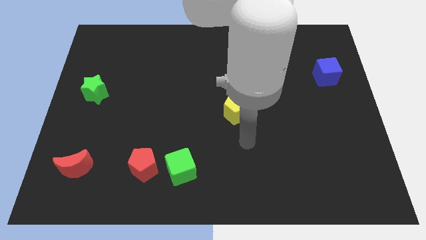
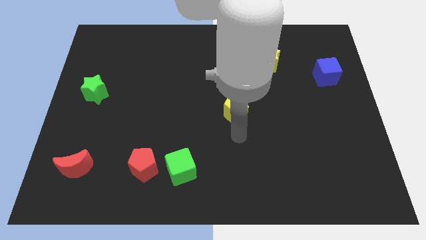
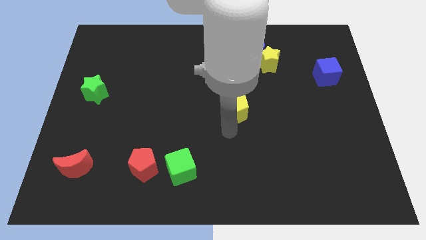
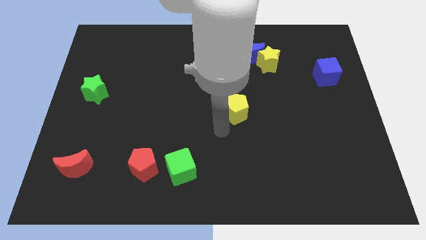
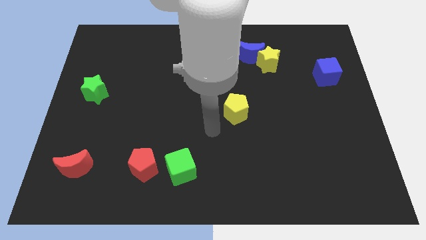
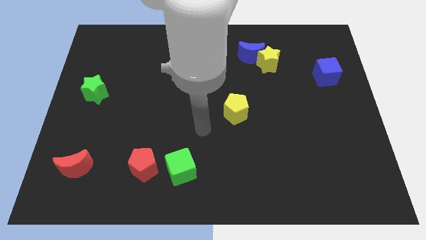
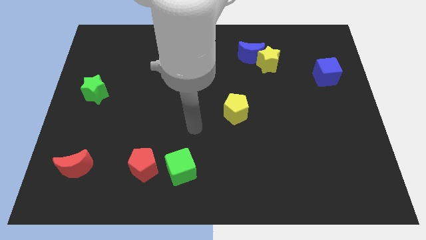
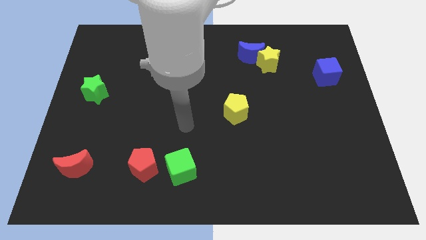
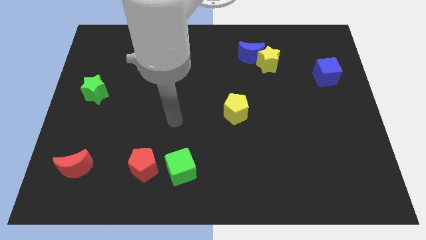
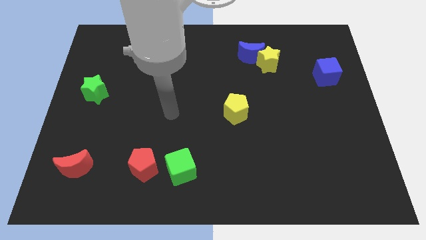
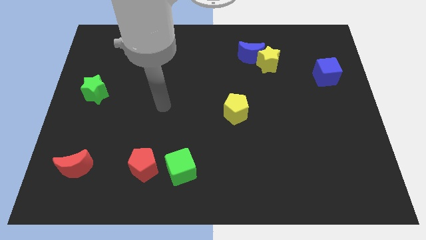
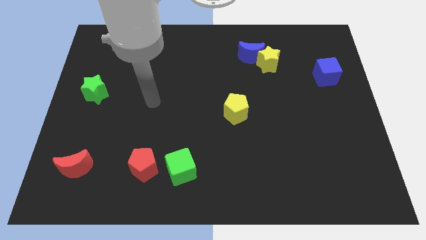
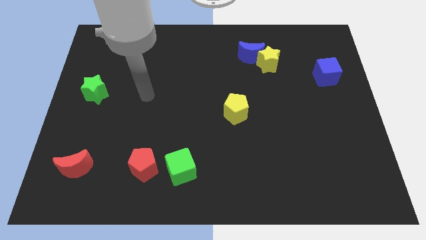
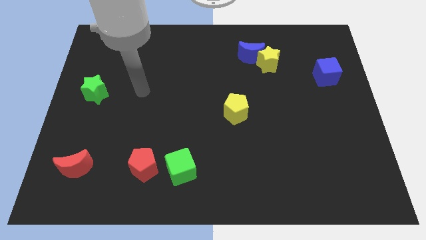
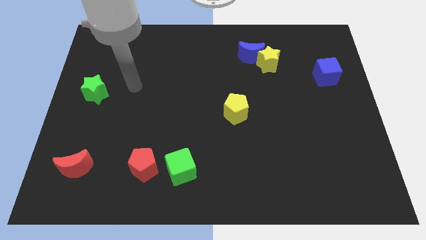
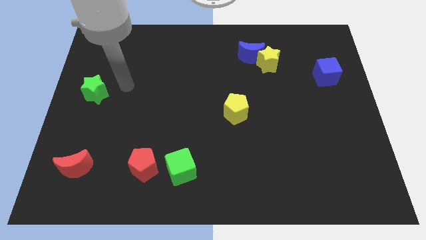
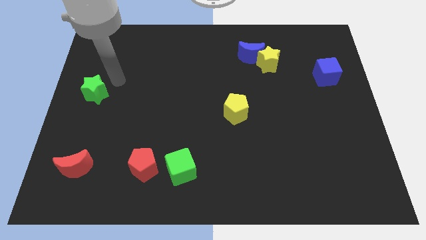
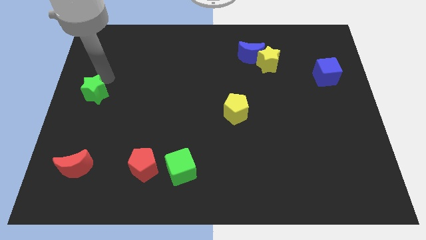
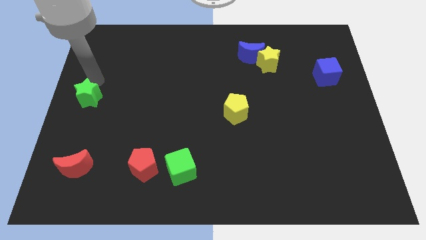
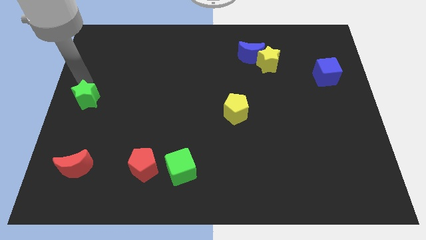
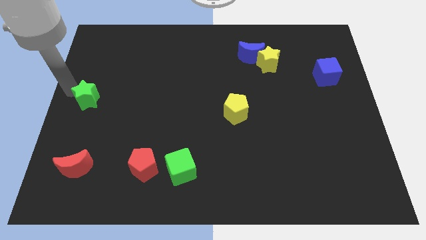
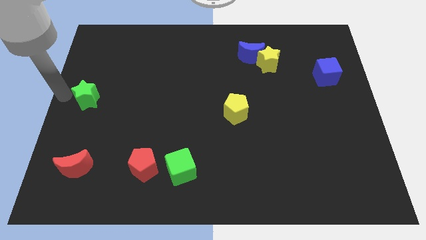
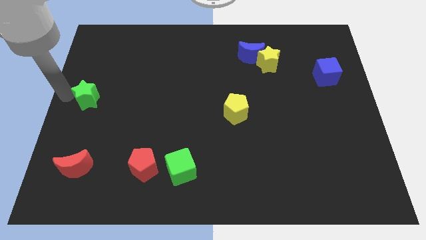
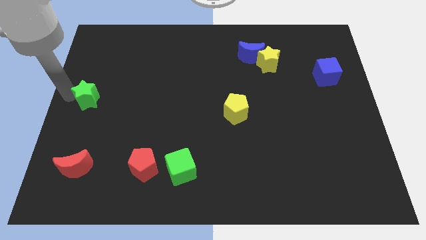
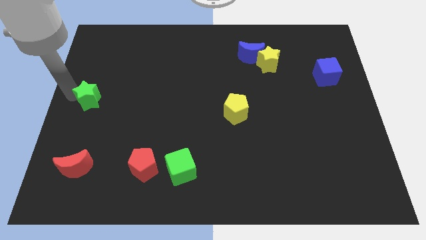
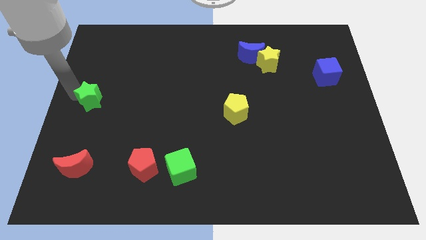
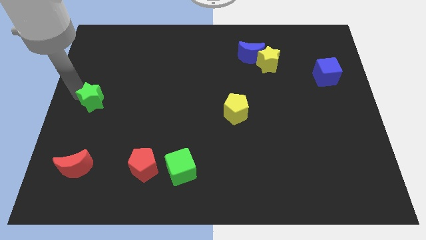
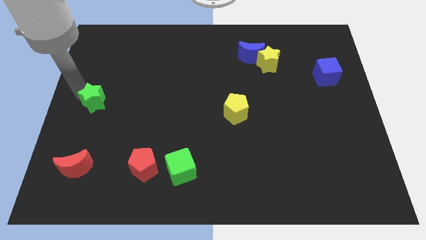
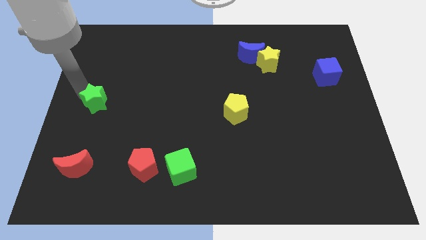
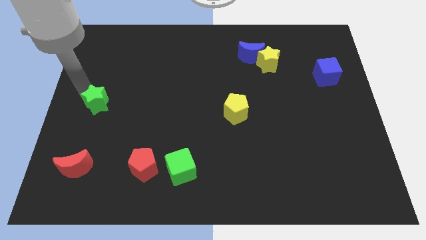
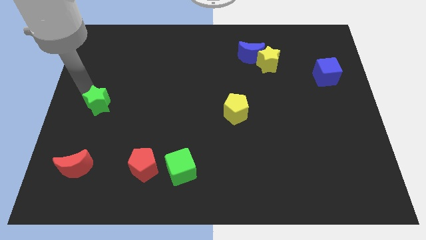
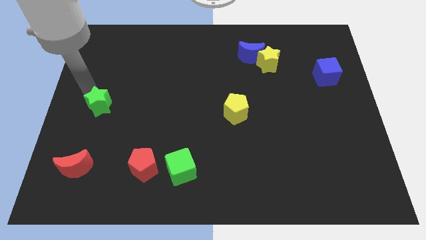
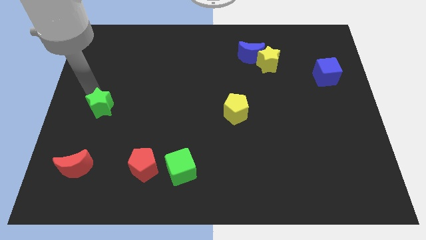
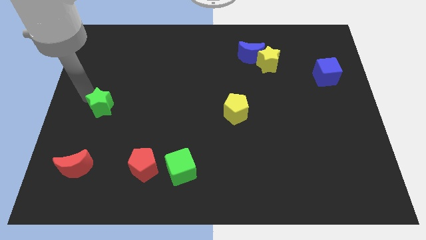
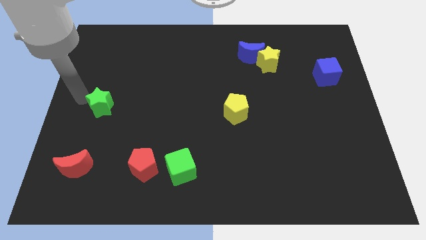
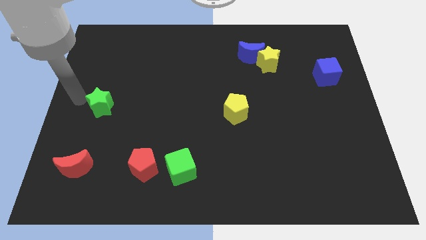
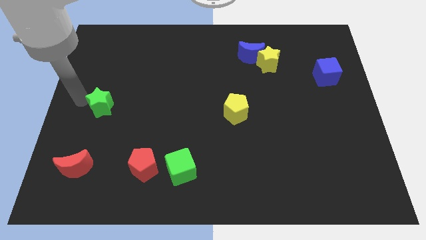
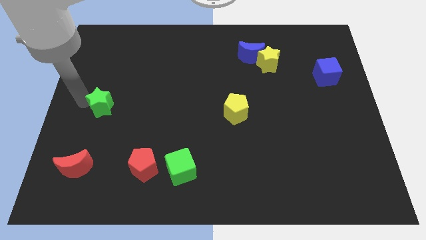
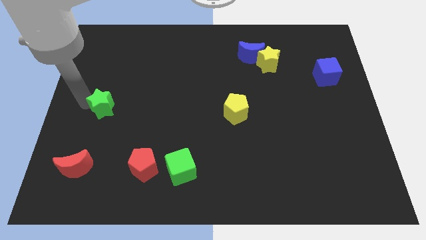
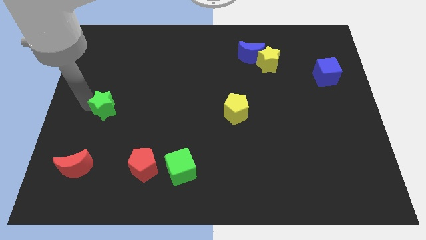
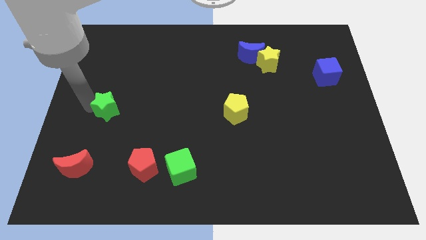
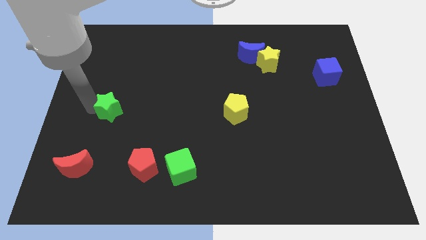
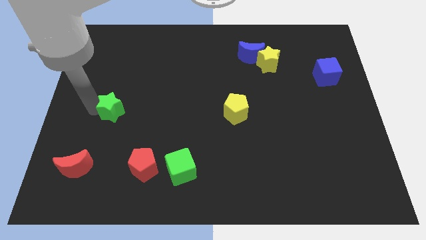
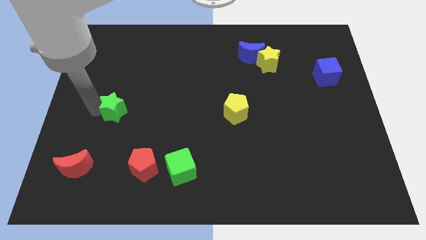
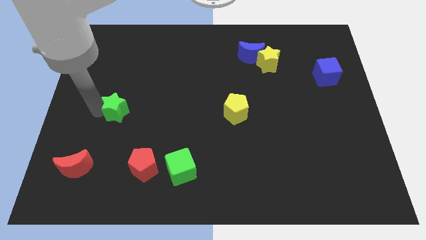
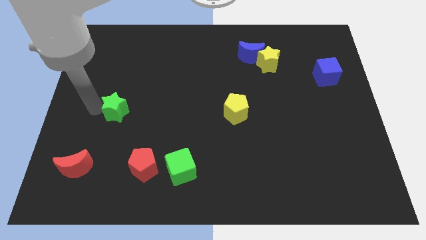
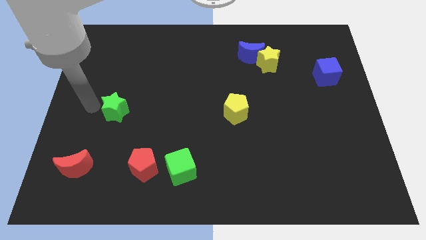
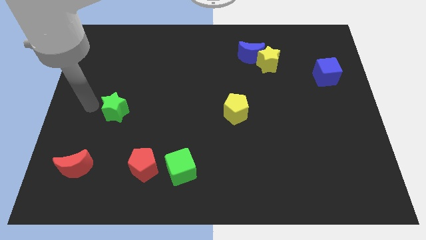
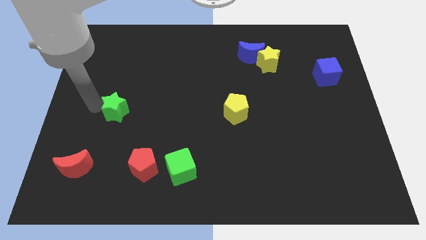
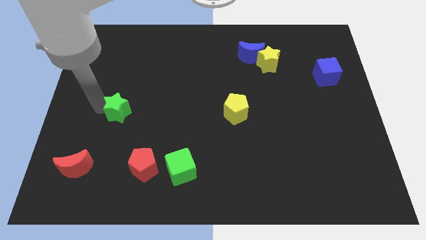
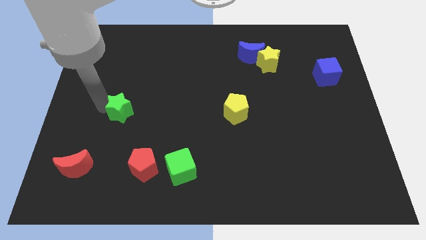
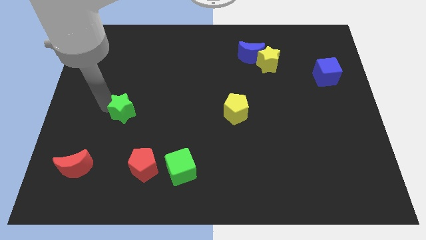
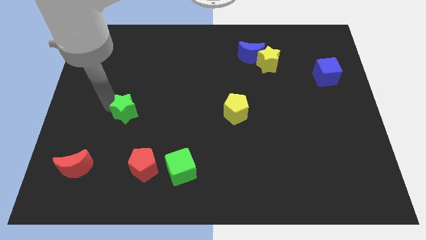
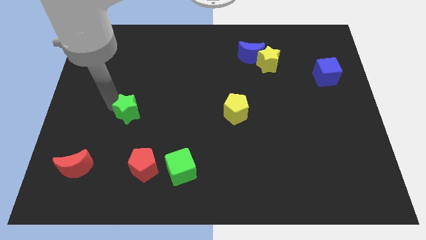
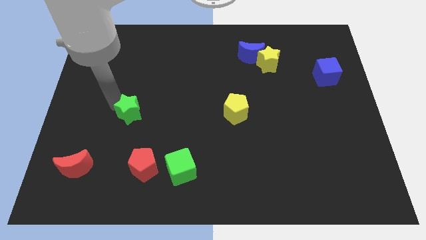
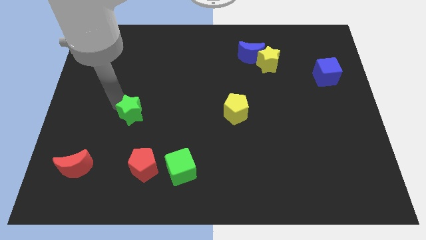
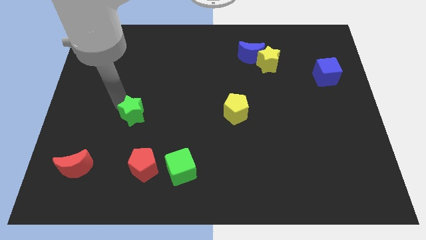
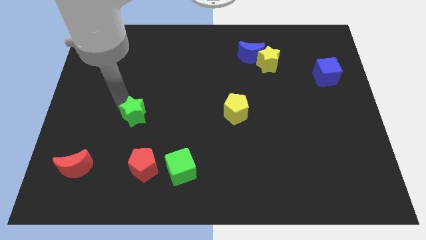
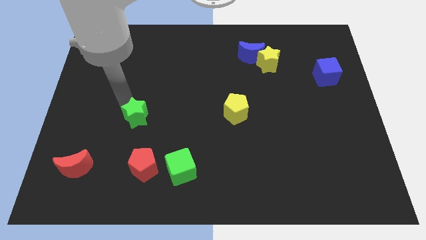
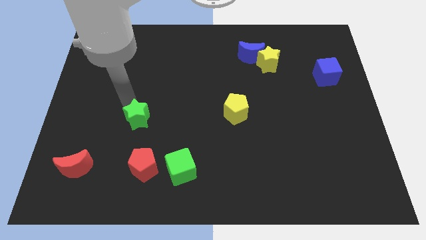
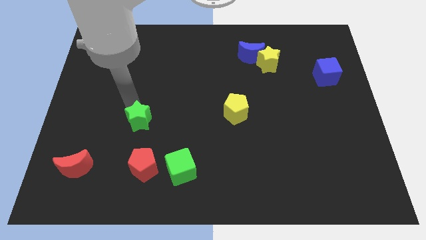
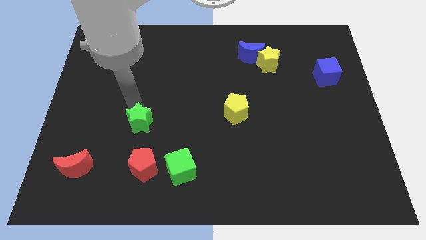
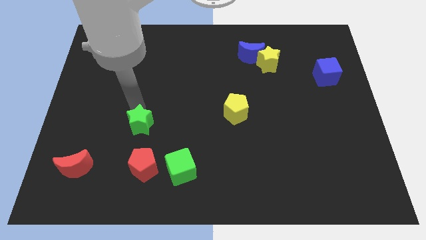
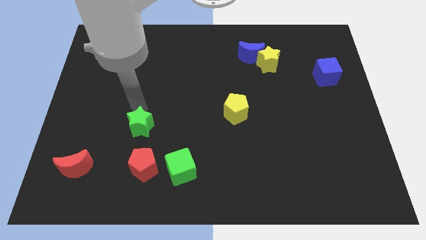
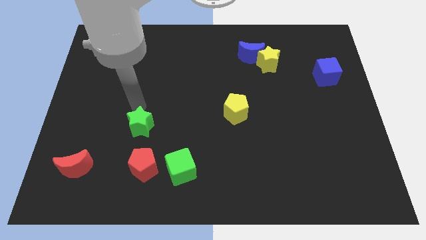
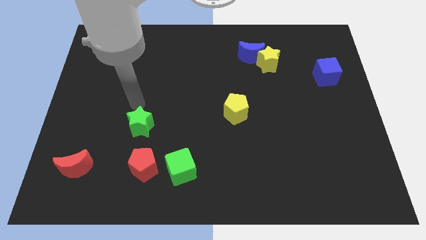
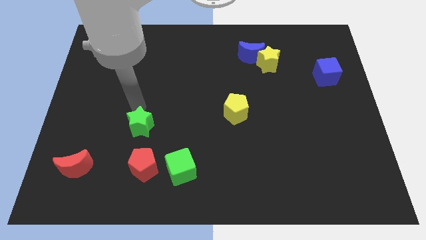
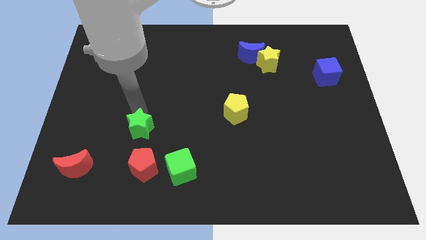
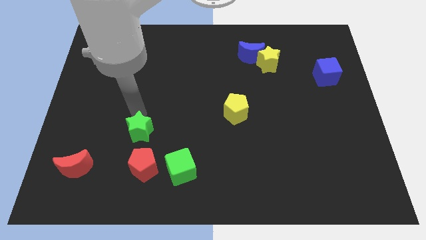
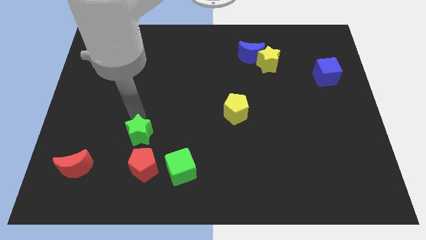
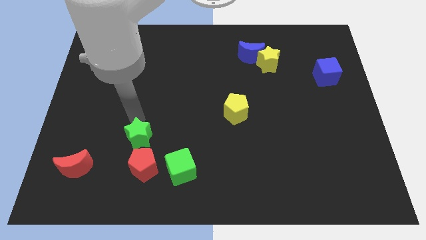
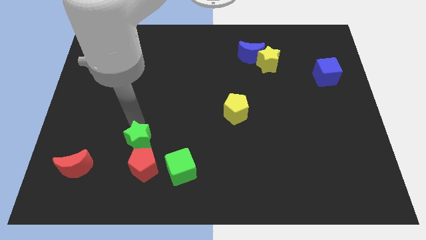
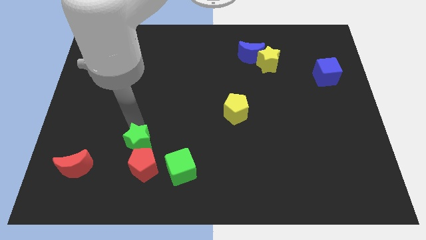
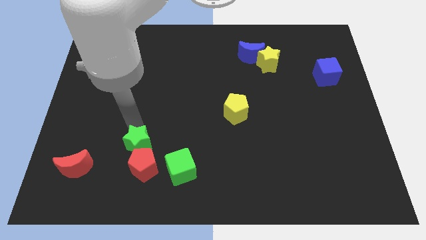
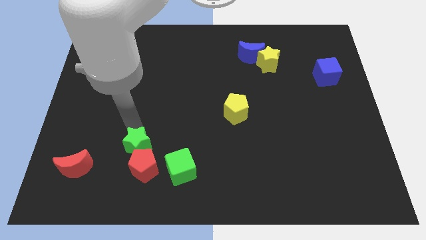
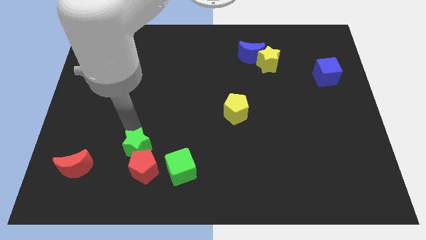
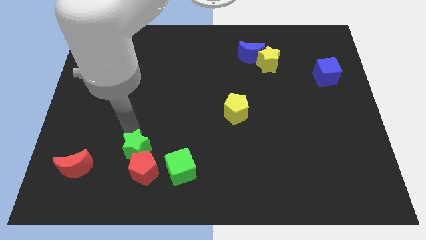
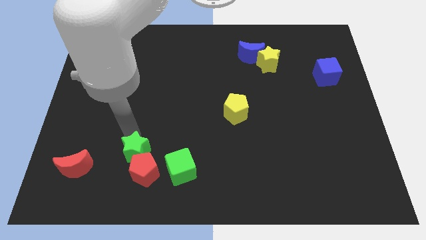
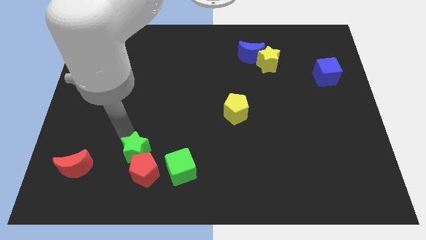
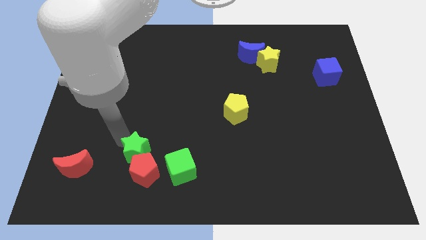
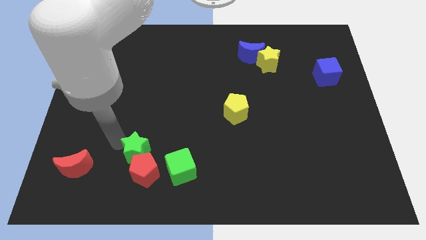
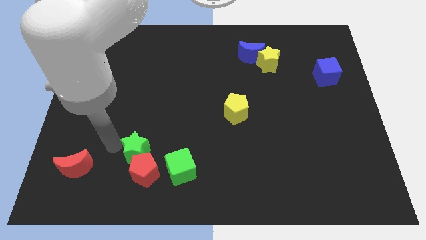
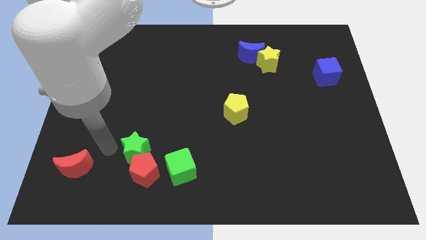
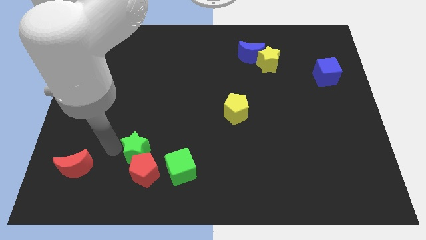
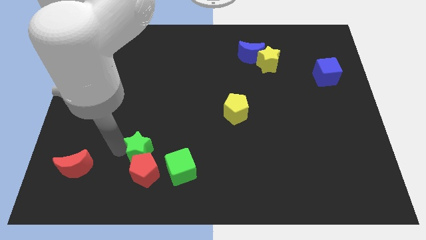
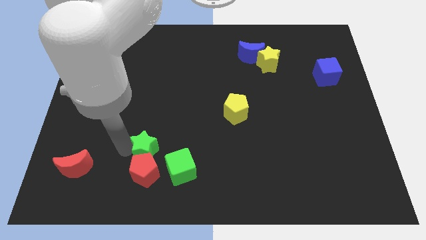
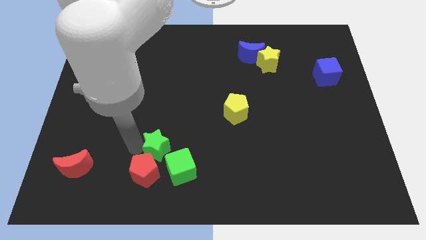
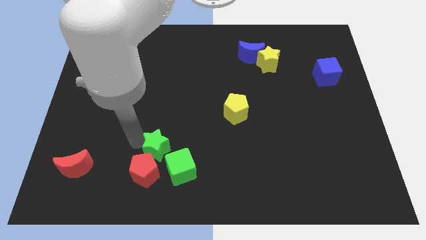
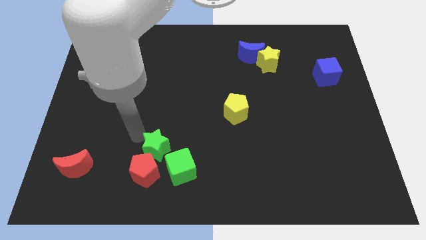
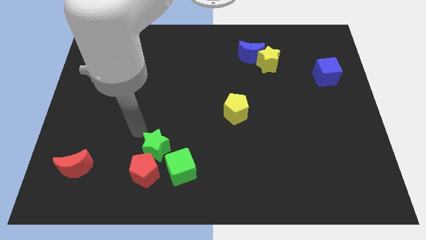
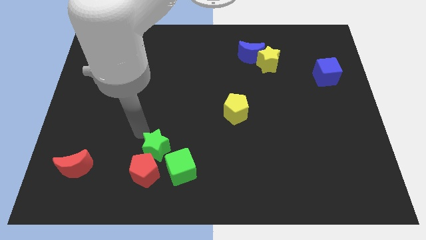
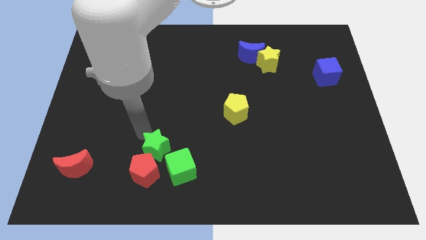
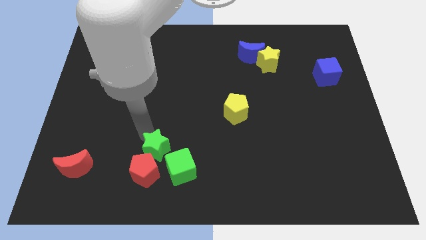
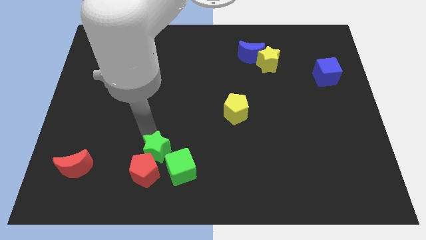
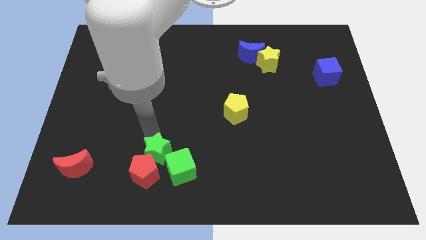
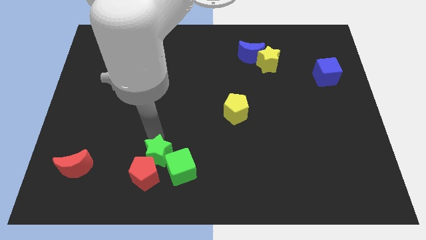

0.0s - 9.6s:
move the green star next to the green cube
